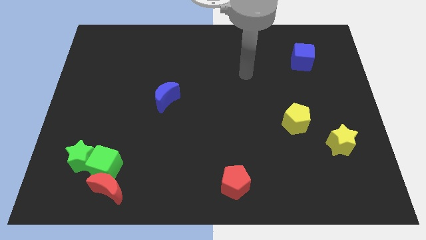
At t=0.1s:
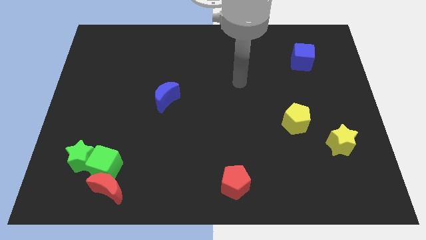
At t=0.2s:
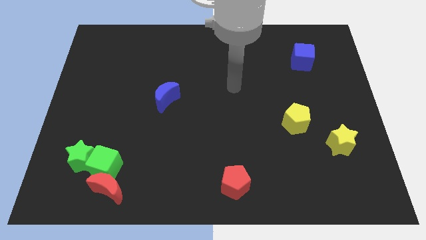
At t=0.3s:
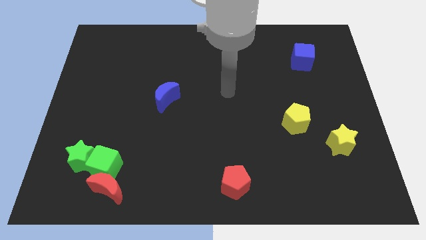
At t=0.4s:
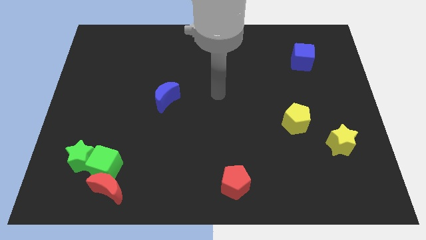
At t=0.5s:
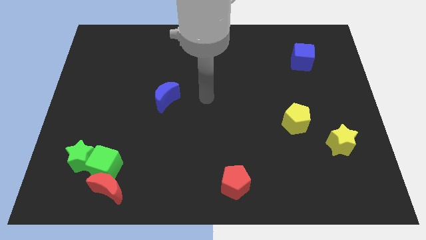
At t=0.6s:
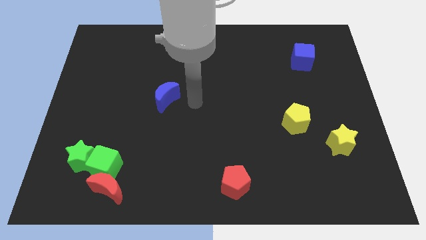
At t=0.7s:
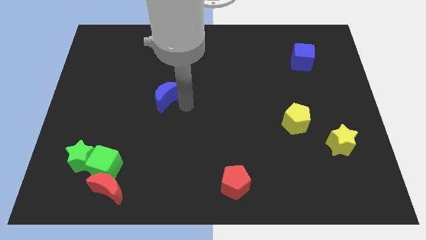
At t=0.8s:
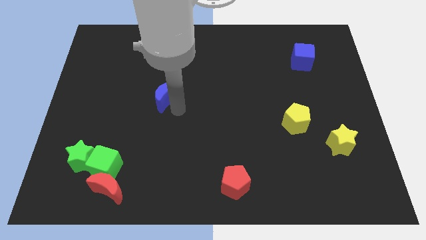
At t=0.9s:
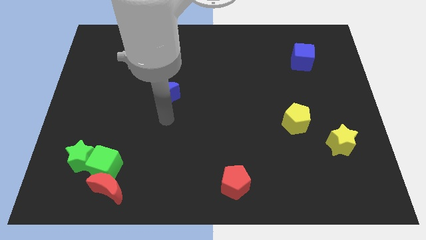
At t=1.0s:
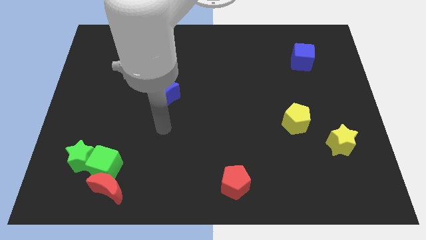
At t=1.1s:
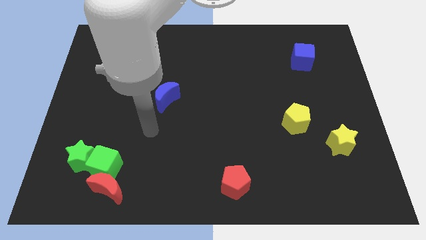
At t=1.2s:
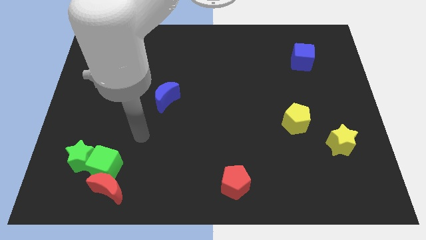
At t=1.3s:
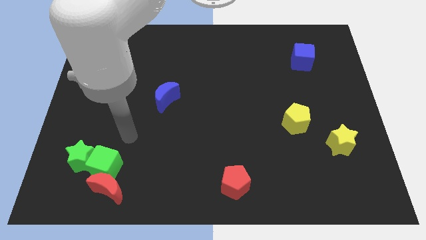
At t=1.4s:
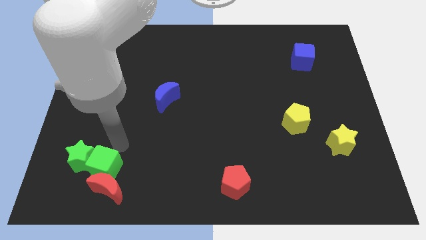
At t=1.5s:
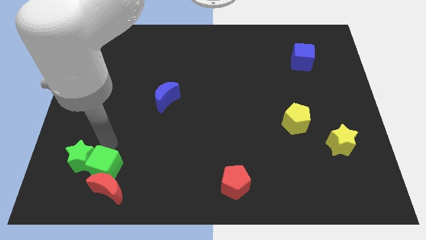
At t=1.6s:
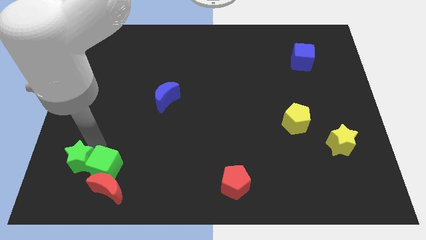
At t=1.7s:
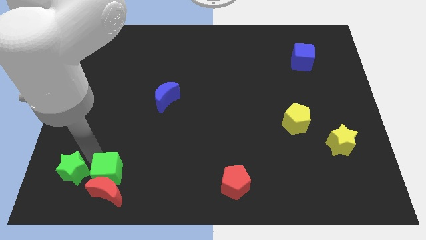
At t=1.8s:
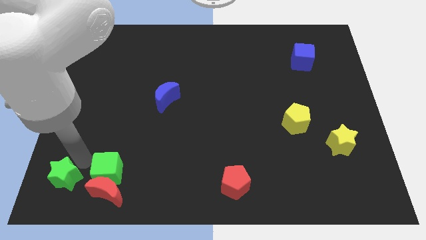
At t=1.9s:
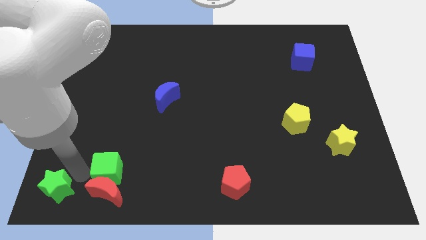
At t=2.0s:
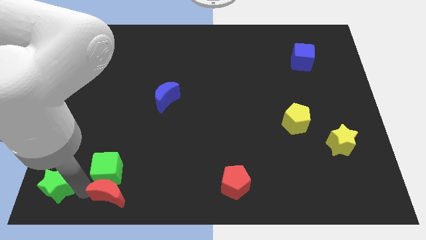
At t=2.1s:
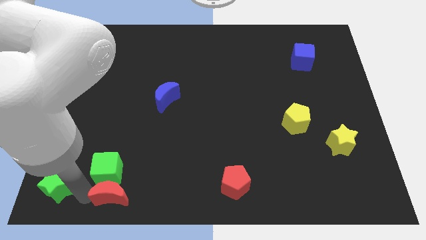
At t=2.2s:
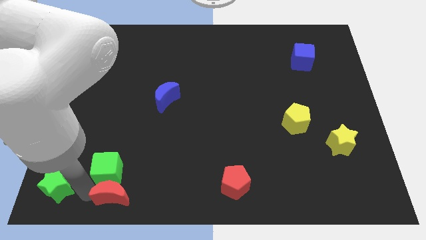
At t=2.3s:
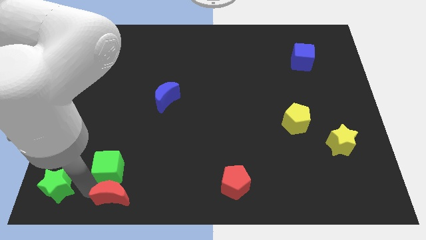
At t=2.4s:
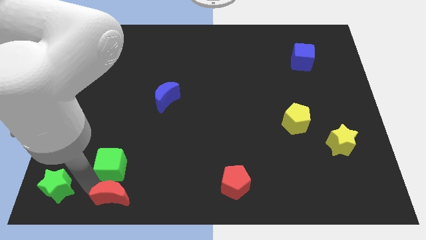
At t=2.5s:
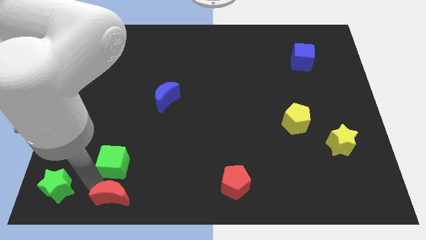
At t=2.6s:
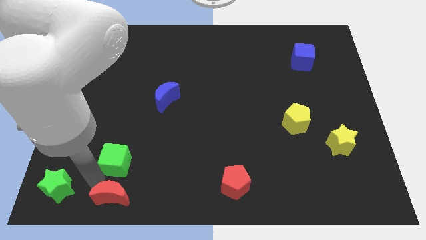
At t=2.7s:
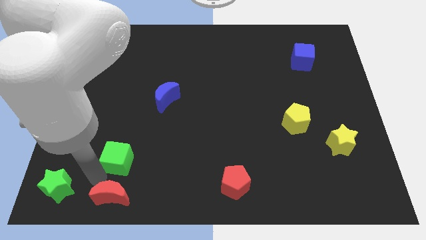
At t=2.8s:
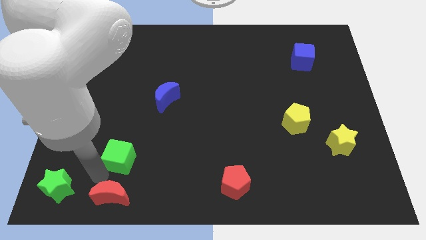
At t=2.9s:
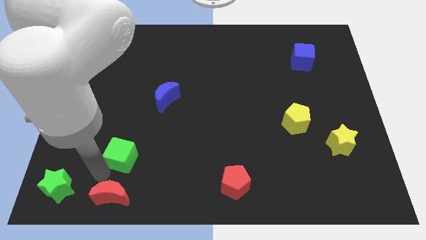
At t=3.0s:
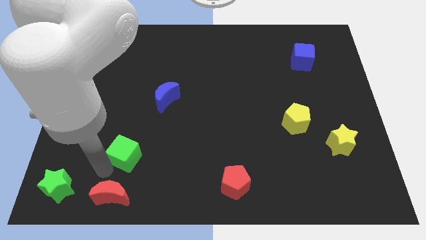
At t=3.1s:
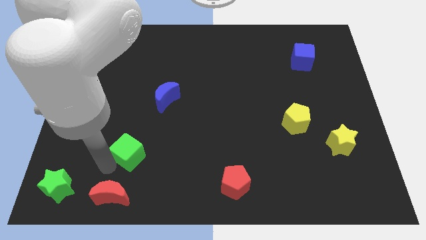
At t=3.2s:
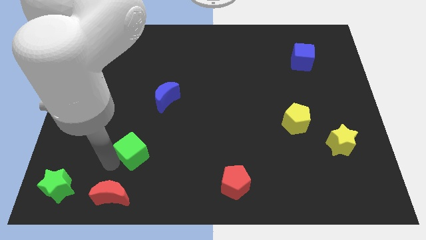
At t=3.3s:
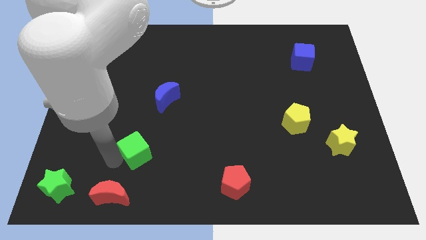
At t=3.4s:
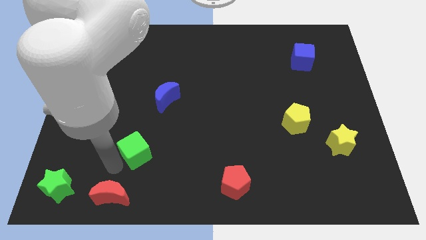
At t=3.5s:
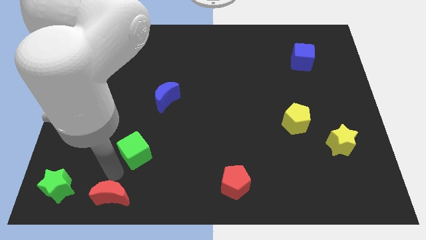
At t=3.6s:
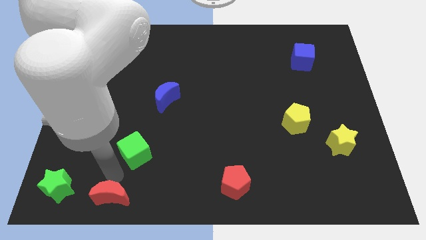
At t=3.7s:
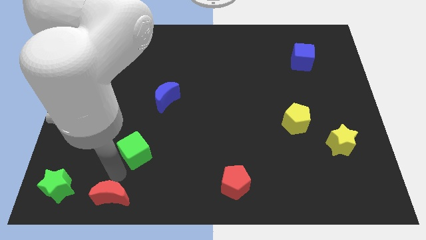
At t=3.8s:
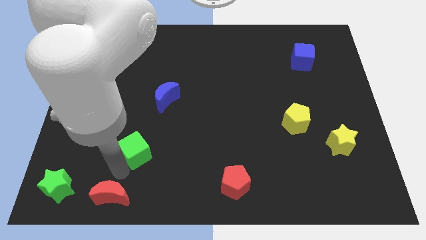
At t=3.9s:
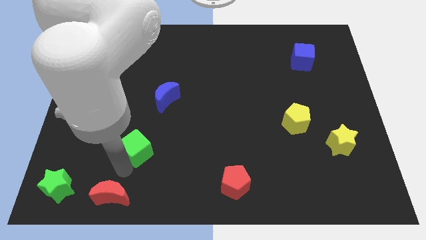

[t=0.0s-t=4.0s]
push the green cube a little bit up and to the right diagonally

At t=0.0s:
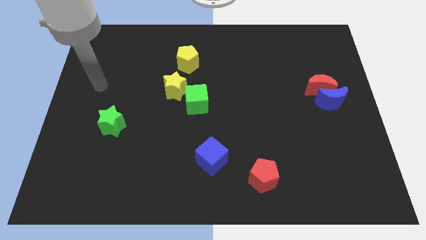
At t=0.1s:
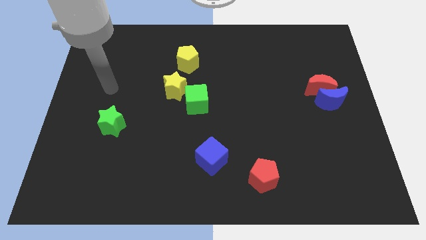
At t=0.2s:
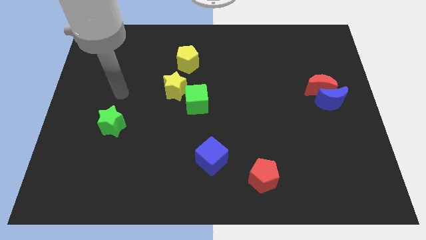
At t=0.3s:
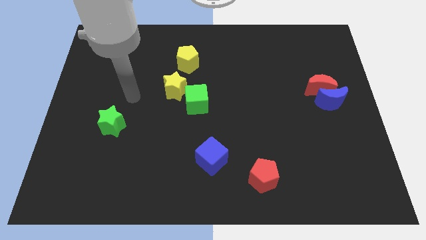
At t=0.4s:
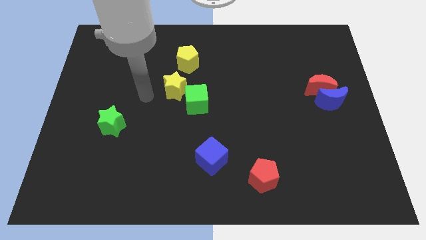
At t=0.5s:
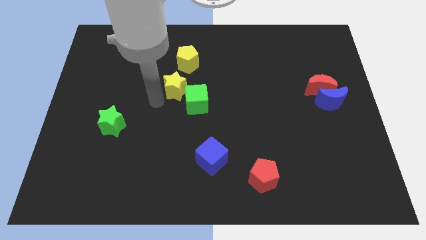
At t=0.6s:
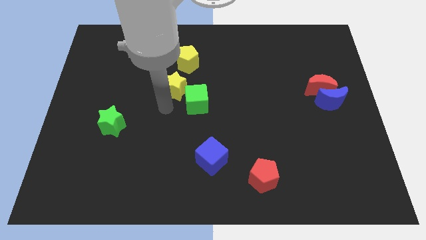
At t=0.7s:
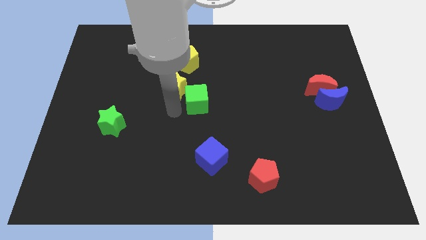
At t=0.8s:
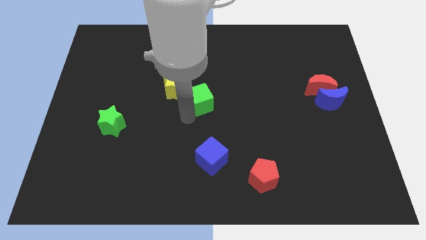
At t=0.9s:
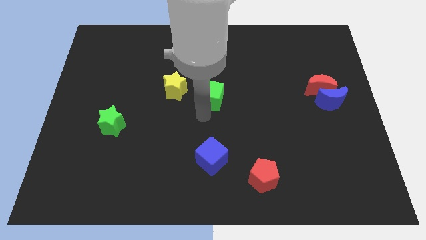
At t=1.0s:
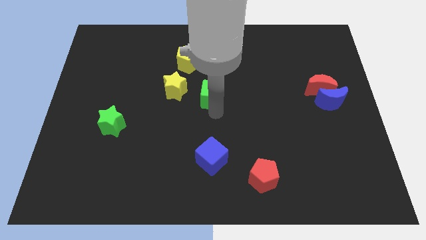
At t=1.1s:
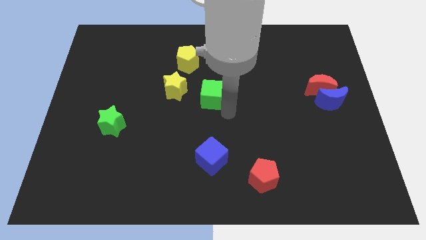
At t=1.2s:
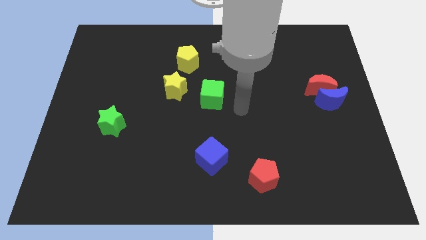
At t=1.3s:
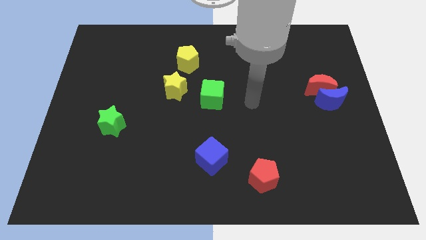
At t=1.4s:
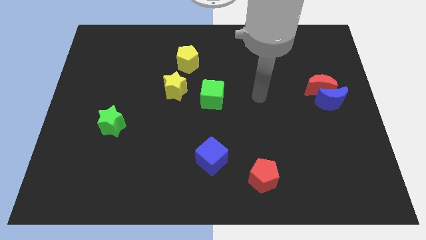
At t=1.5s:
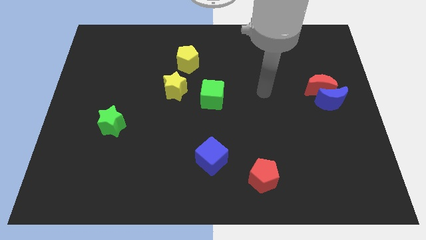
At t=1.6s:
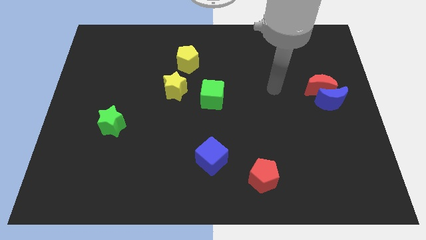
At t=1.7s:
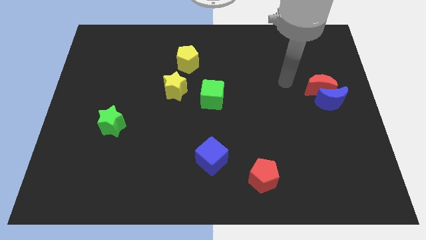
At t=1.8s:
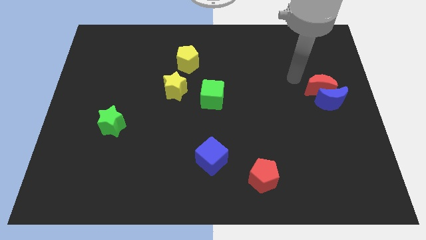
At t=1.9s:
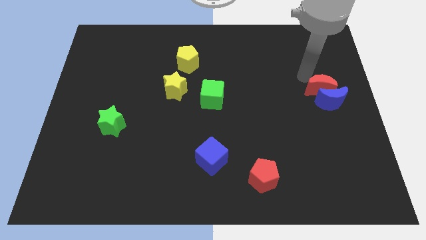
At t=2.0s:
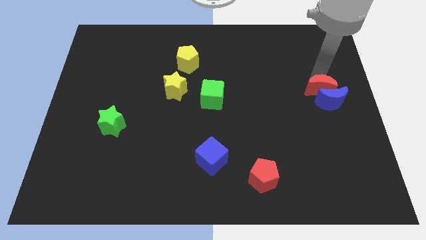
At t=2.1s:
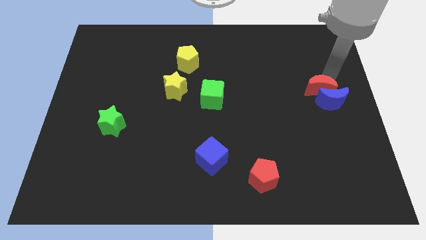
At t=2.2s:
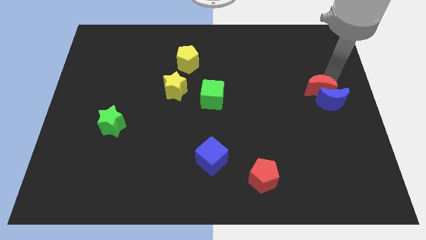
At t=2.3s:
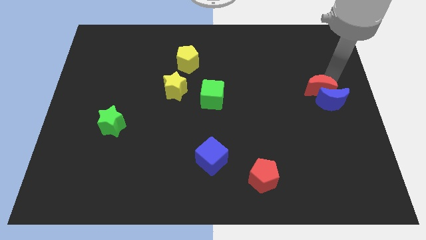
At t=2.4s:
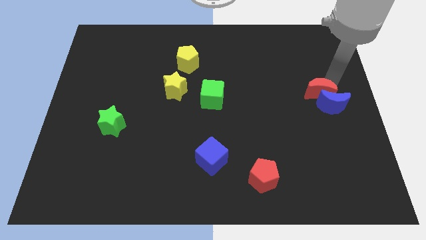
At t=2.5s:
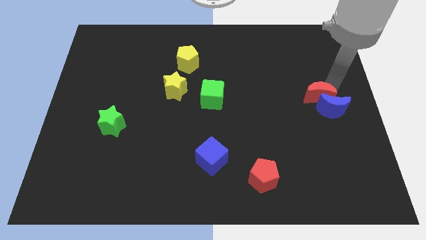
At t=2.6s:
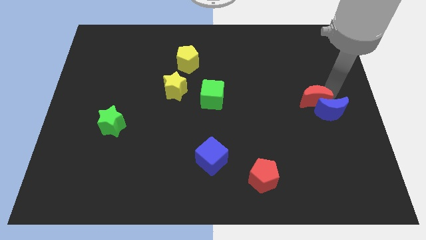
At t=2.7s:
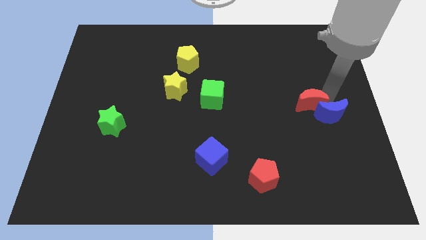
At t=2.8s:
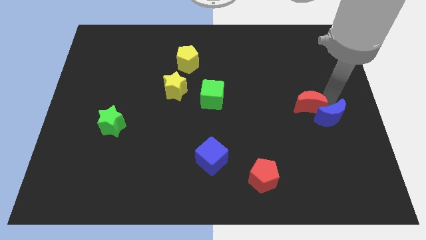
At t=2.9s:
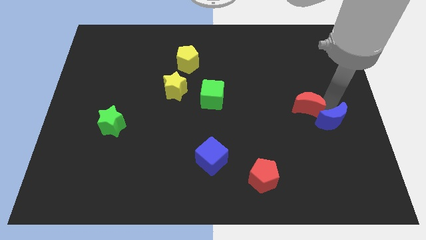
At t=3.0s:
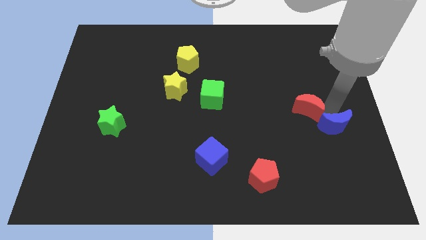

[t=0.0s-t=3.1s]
move the blue moon a little downwards

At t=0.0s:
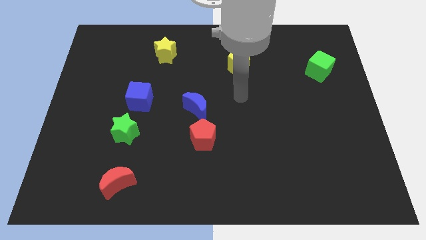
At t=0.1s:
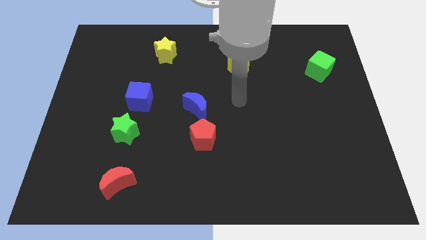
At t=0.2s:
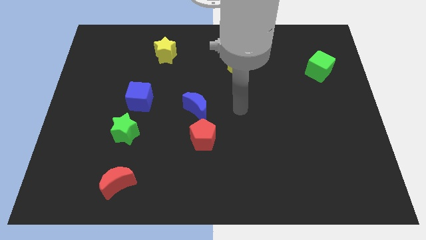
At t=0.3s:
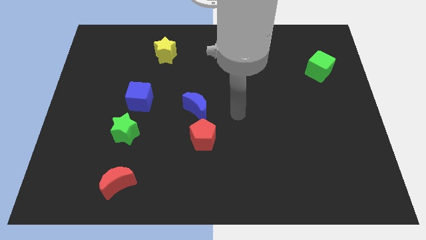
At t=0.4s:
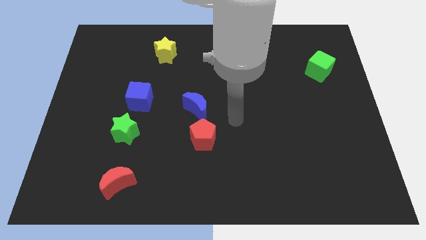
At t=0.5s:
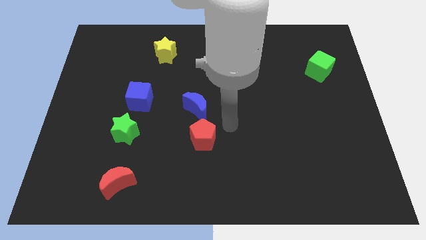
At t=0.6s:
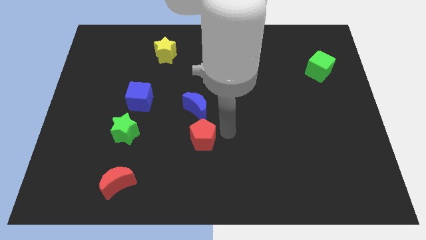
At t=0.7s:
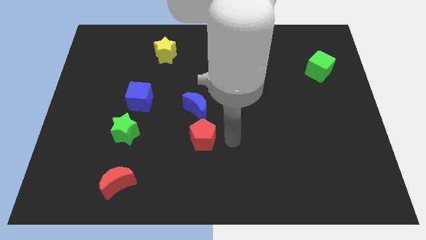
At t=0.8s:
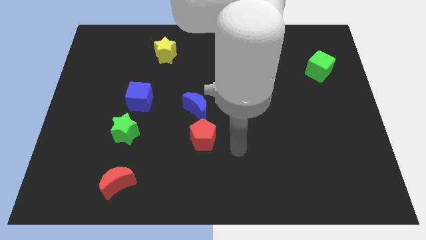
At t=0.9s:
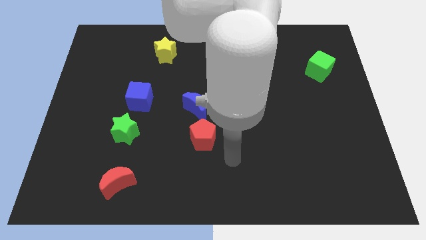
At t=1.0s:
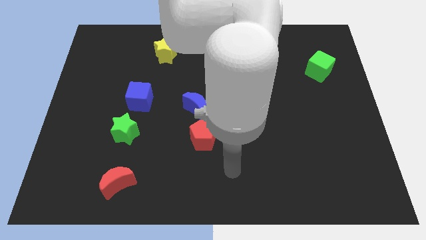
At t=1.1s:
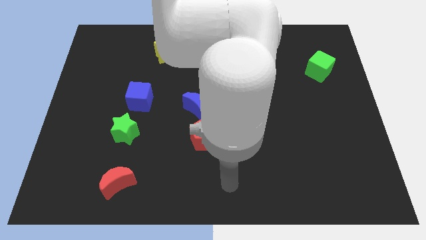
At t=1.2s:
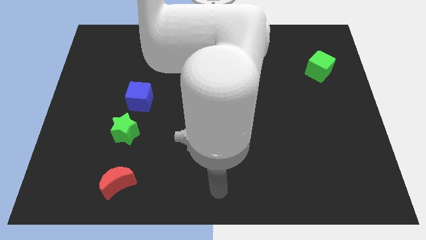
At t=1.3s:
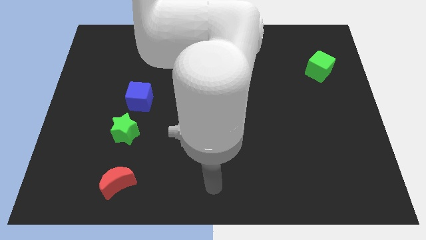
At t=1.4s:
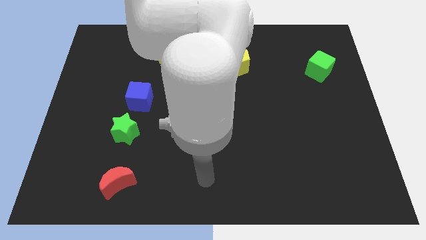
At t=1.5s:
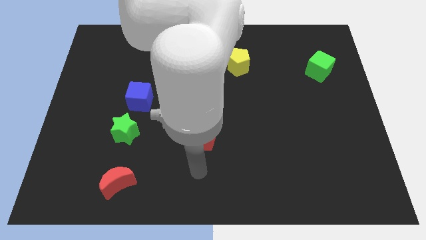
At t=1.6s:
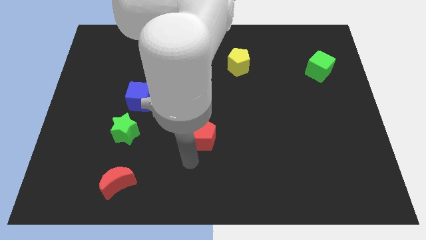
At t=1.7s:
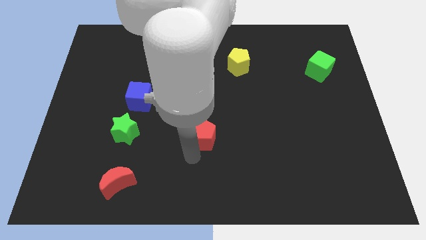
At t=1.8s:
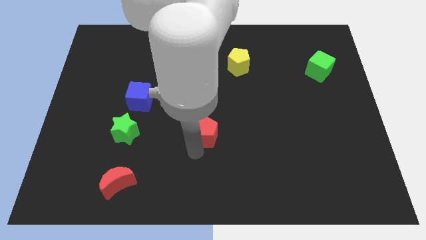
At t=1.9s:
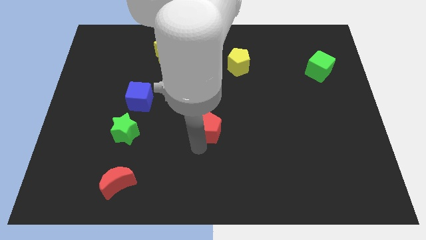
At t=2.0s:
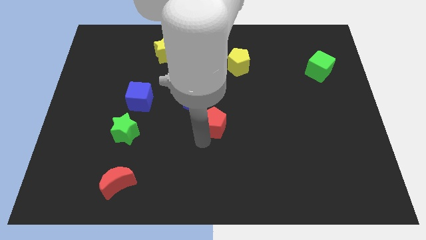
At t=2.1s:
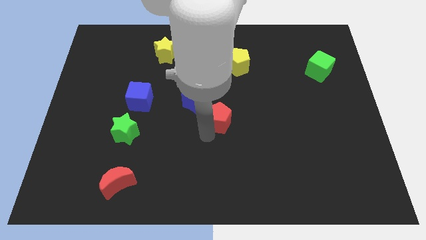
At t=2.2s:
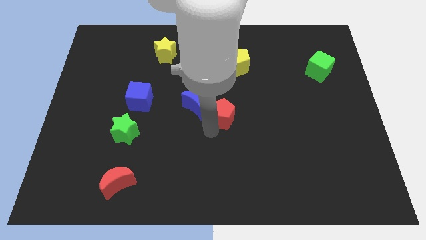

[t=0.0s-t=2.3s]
slide the red pentagon slightly up and then to the right
